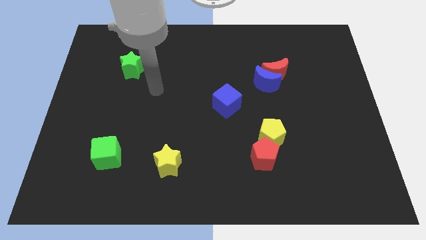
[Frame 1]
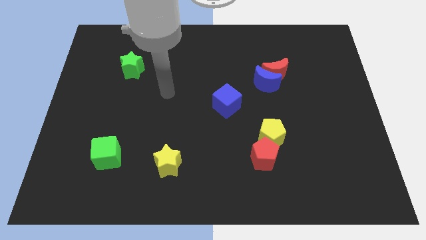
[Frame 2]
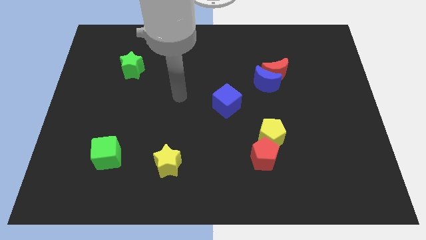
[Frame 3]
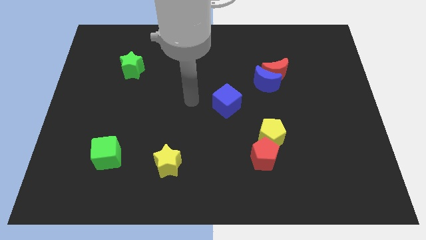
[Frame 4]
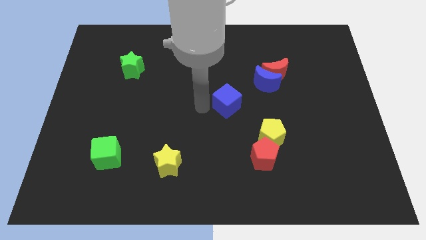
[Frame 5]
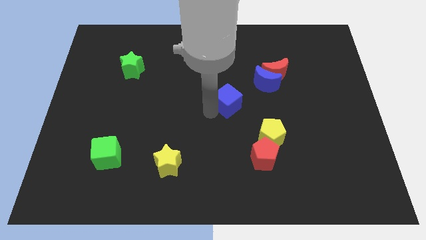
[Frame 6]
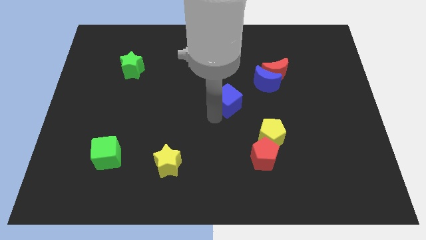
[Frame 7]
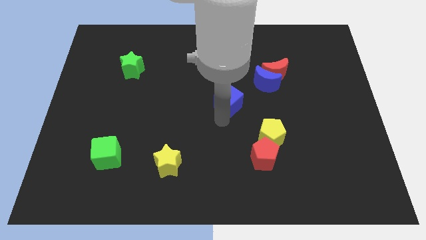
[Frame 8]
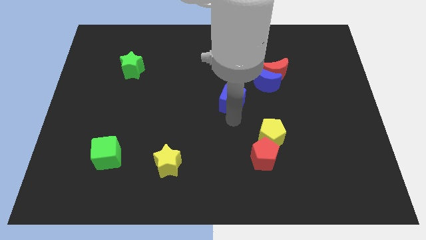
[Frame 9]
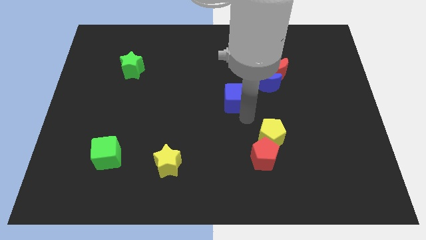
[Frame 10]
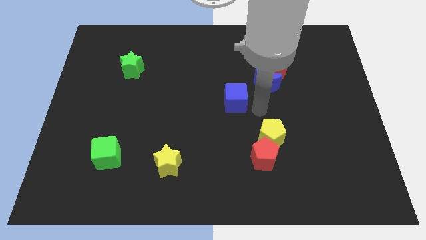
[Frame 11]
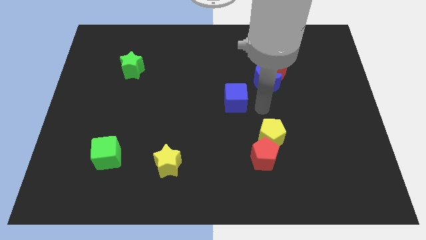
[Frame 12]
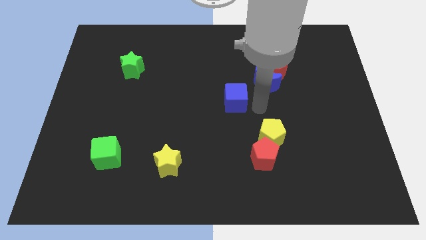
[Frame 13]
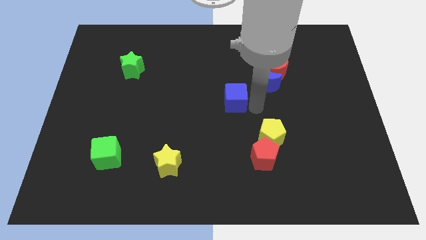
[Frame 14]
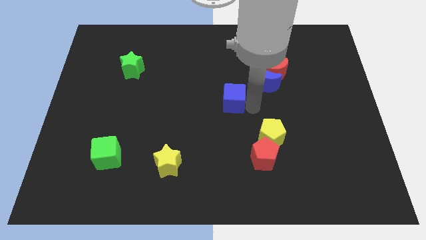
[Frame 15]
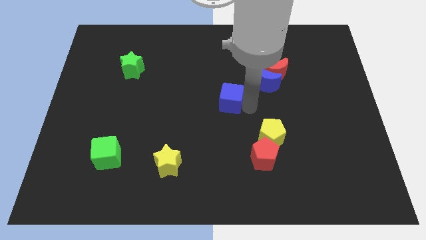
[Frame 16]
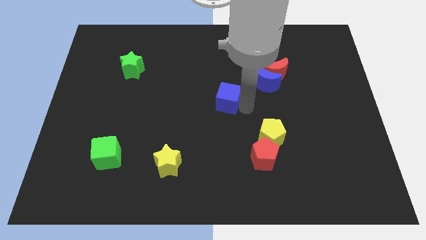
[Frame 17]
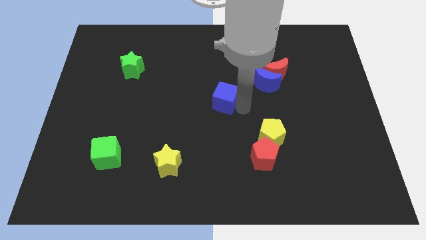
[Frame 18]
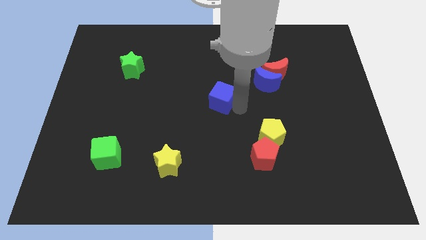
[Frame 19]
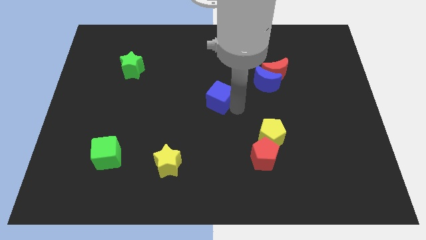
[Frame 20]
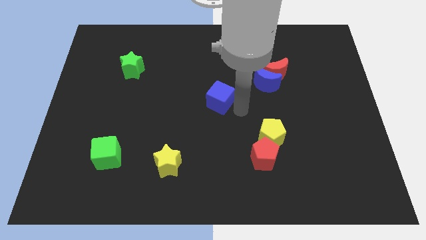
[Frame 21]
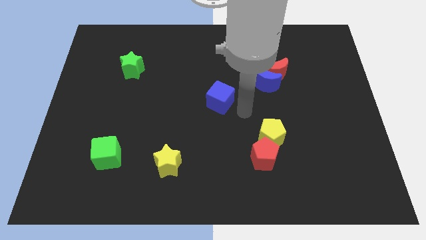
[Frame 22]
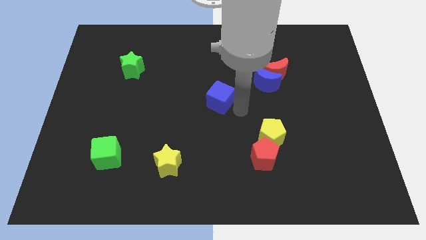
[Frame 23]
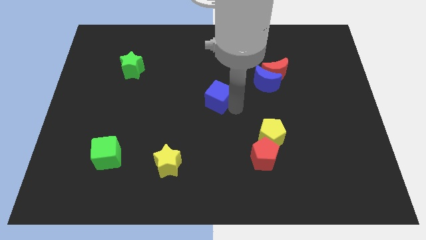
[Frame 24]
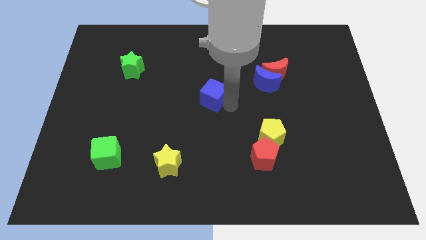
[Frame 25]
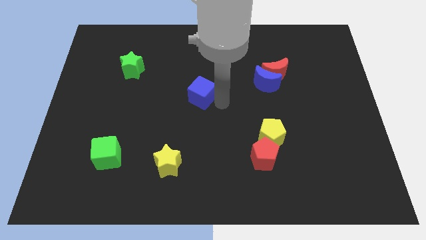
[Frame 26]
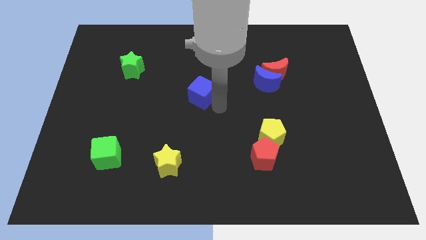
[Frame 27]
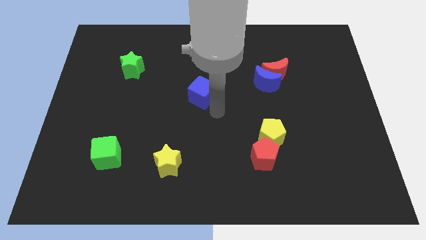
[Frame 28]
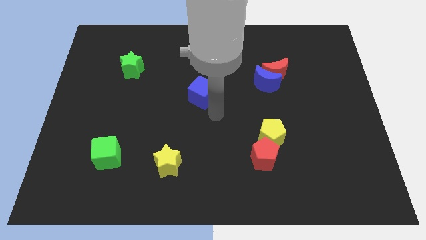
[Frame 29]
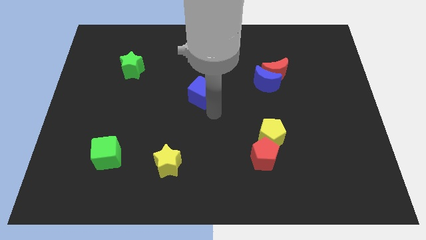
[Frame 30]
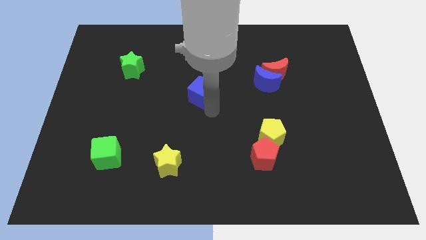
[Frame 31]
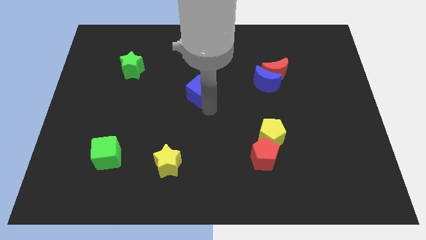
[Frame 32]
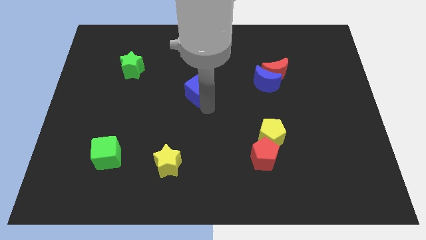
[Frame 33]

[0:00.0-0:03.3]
move the blue cube a little diagonally upwards and to the left

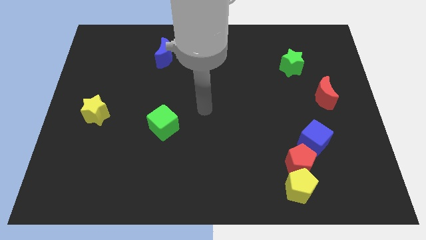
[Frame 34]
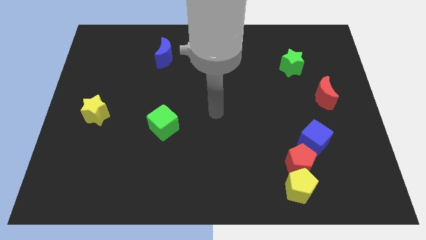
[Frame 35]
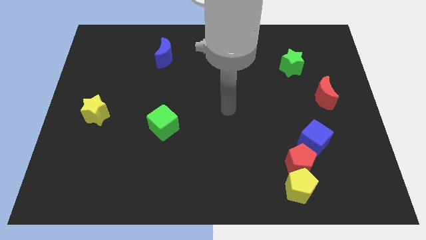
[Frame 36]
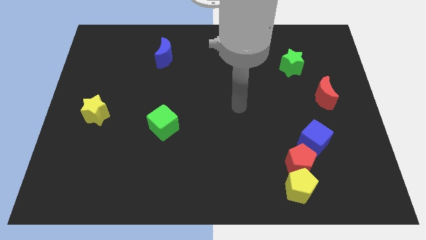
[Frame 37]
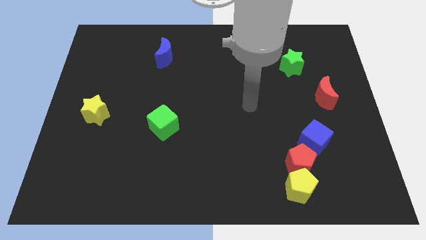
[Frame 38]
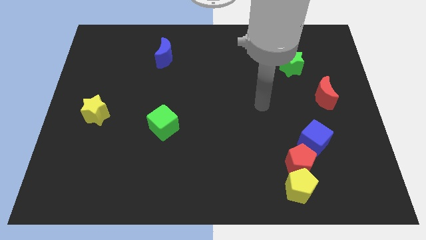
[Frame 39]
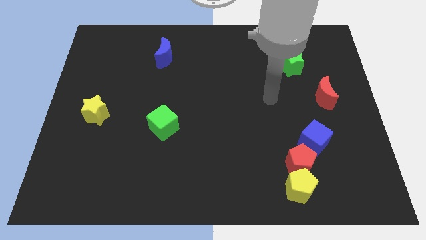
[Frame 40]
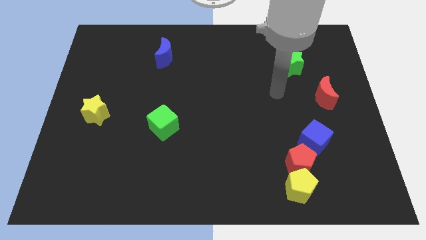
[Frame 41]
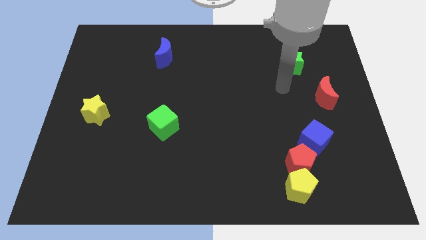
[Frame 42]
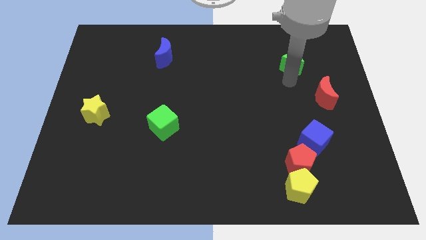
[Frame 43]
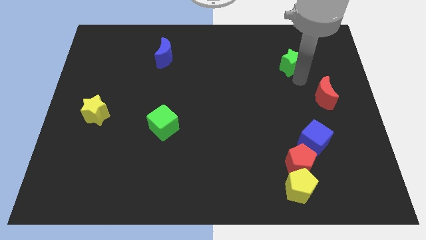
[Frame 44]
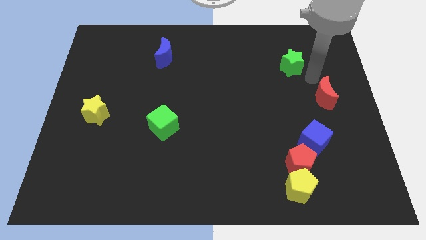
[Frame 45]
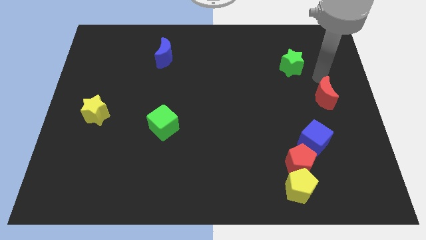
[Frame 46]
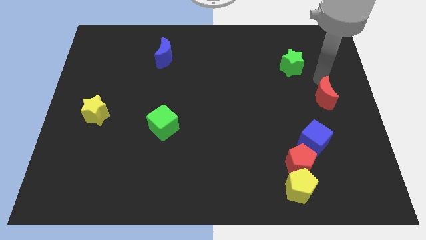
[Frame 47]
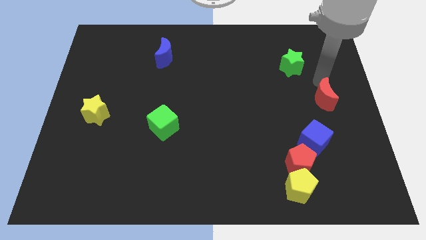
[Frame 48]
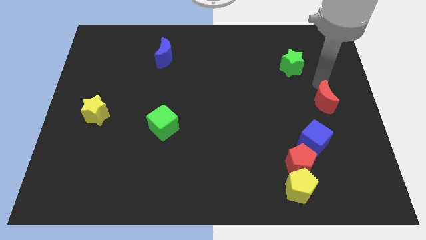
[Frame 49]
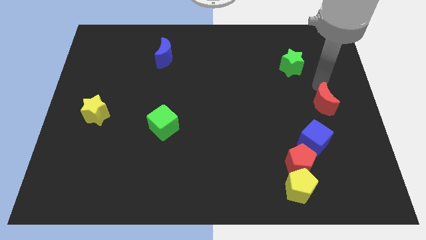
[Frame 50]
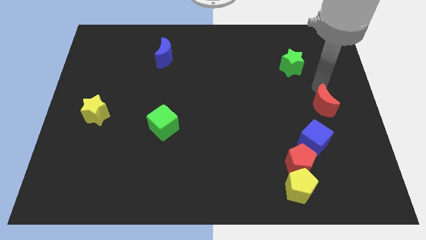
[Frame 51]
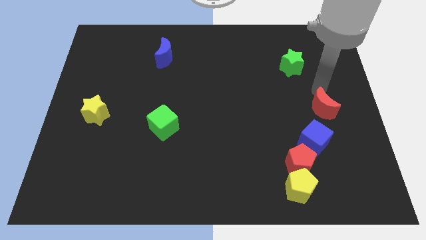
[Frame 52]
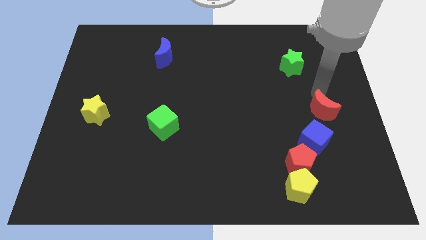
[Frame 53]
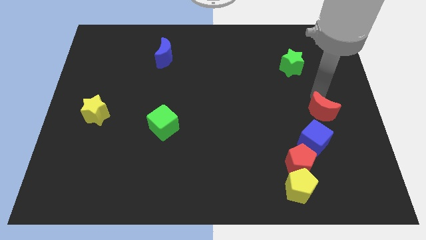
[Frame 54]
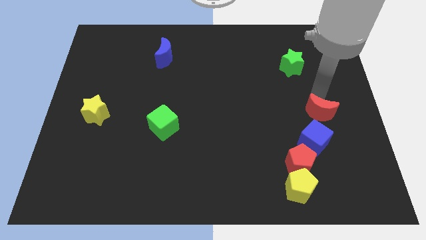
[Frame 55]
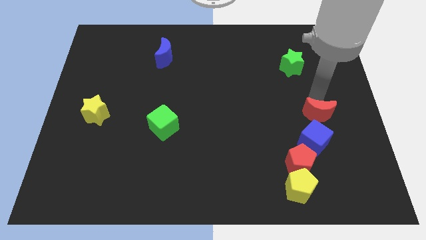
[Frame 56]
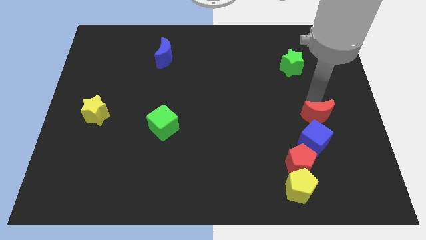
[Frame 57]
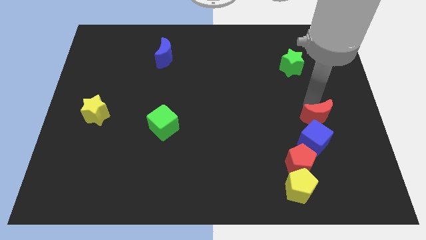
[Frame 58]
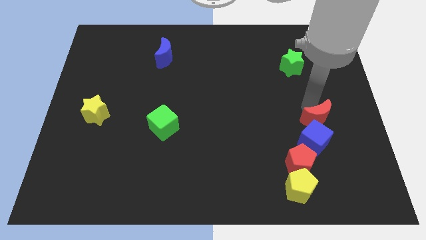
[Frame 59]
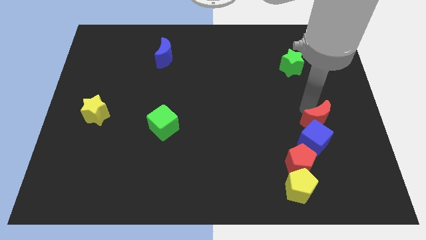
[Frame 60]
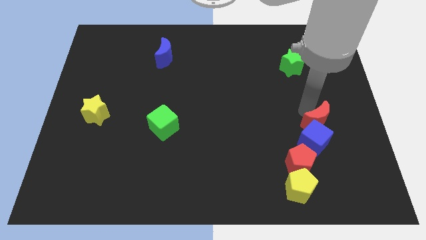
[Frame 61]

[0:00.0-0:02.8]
slide the red moon a little bit down

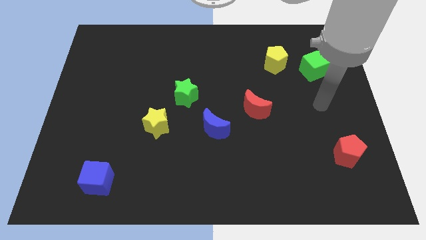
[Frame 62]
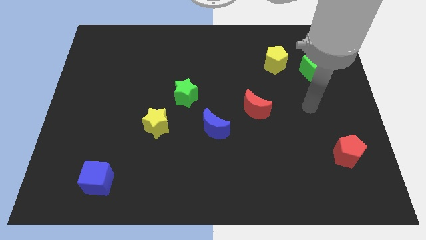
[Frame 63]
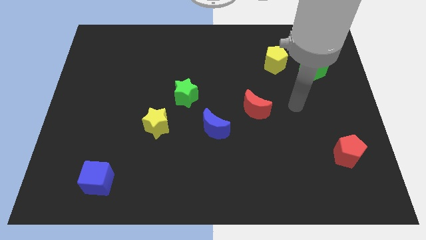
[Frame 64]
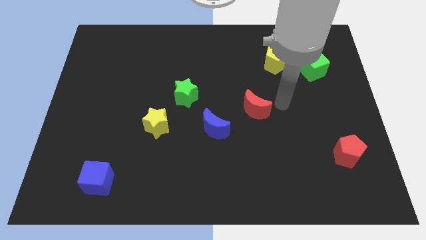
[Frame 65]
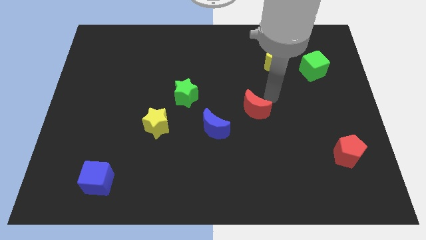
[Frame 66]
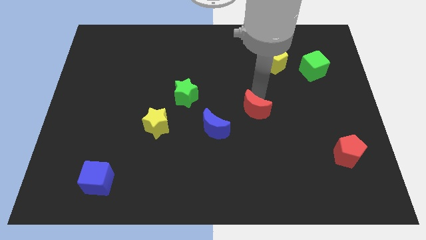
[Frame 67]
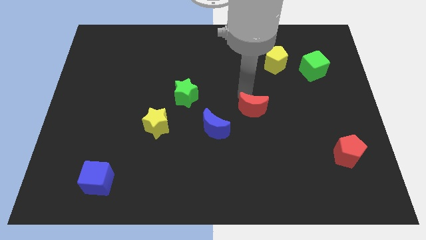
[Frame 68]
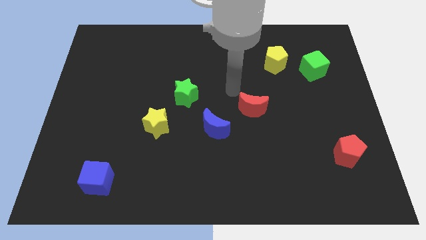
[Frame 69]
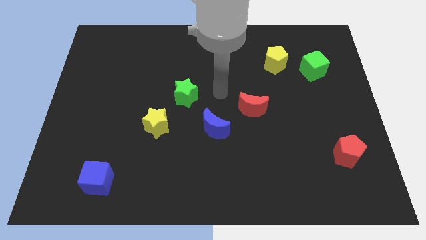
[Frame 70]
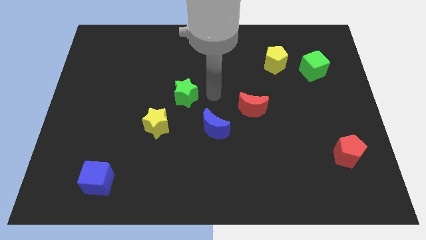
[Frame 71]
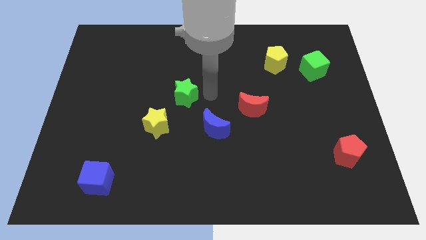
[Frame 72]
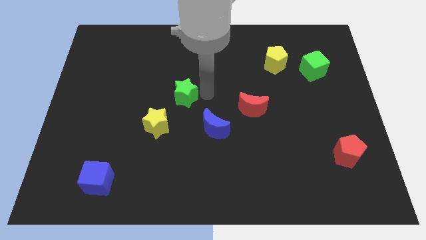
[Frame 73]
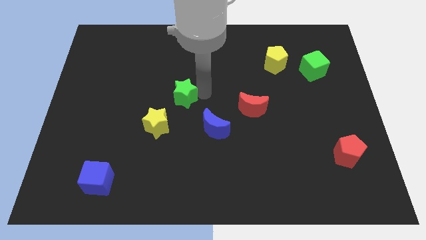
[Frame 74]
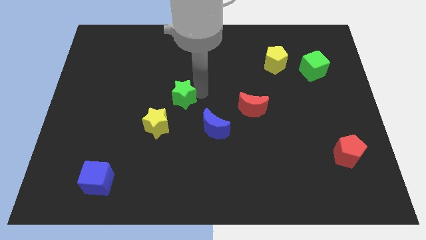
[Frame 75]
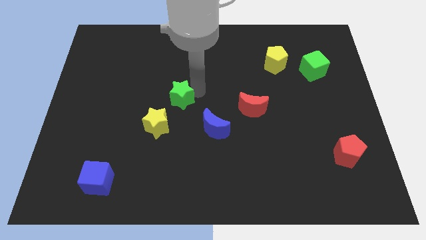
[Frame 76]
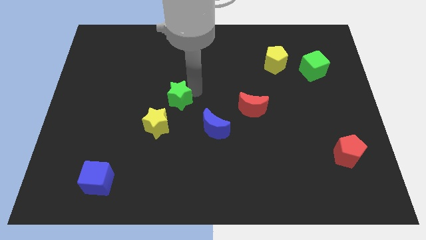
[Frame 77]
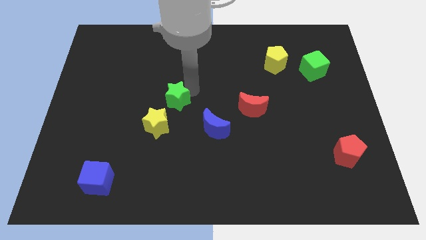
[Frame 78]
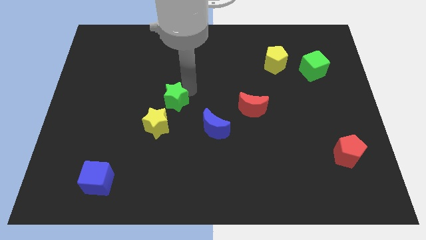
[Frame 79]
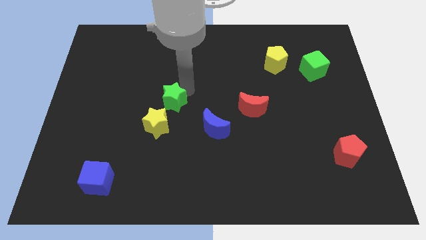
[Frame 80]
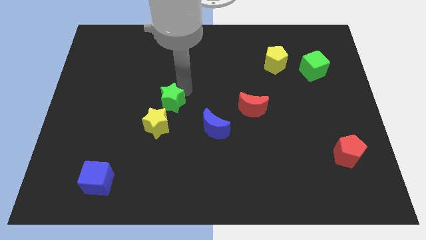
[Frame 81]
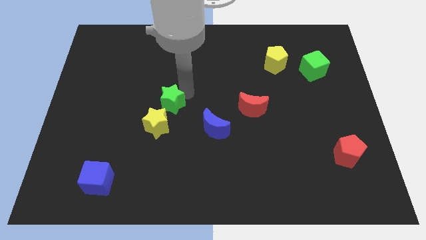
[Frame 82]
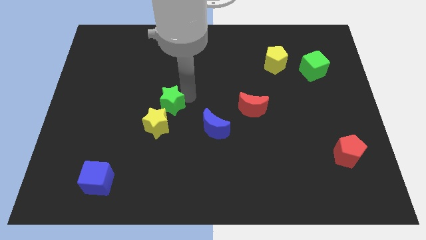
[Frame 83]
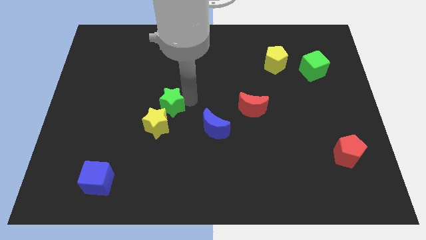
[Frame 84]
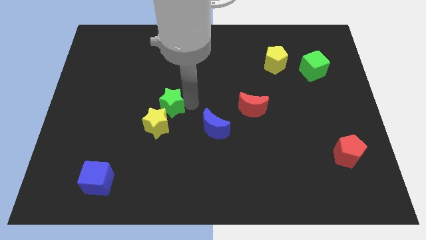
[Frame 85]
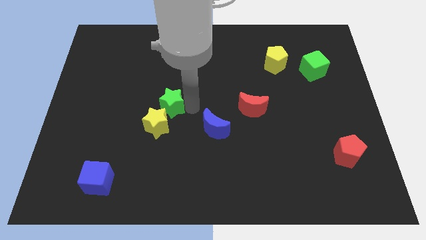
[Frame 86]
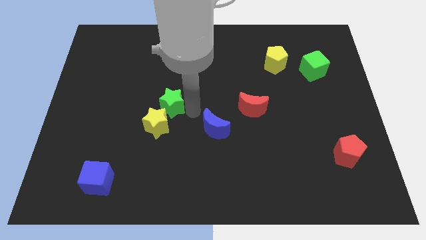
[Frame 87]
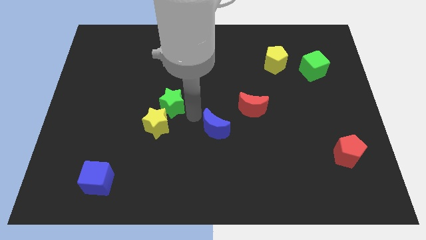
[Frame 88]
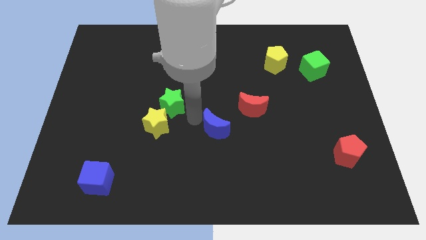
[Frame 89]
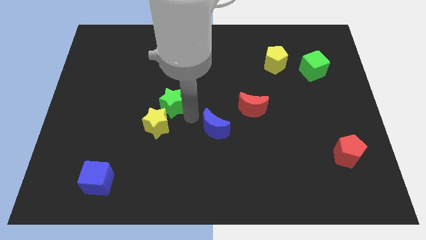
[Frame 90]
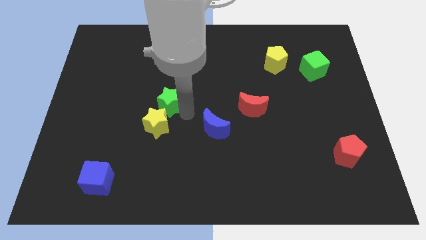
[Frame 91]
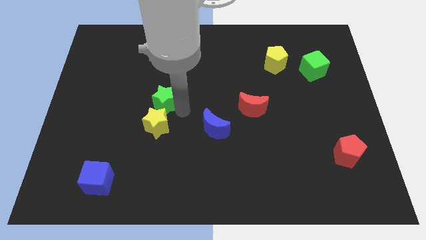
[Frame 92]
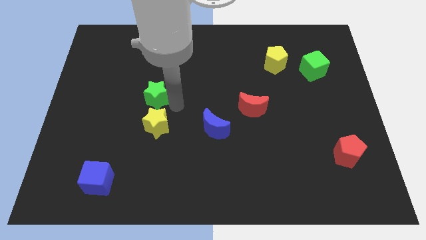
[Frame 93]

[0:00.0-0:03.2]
slide the green star to the left a bit
